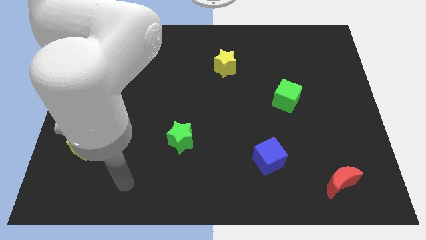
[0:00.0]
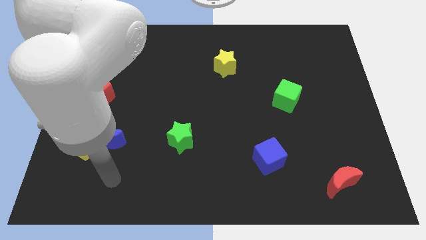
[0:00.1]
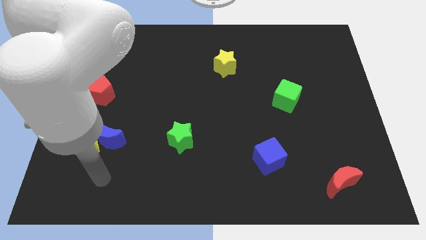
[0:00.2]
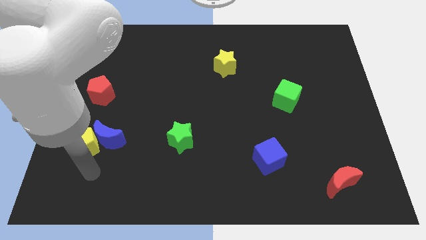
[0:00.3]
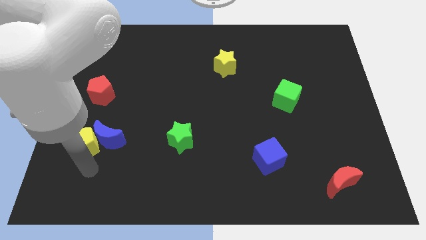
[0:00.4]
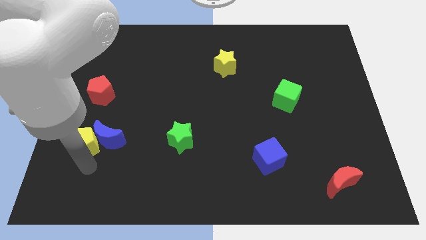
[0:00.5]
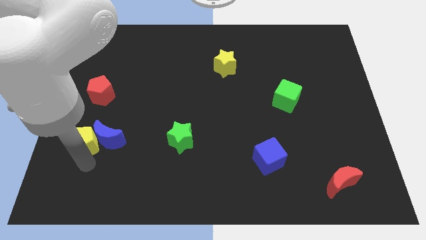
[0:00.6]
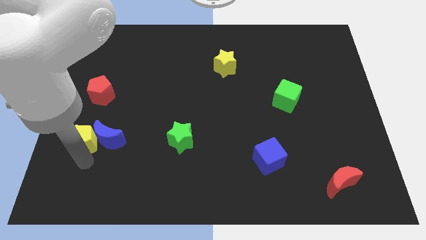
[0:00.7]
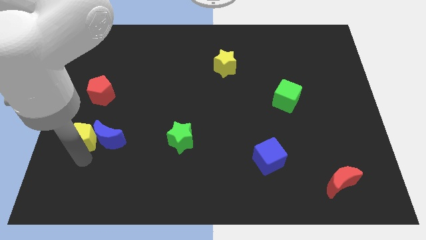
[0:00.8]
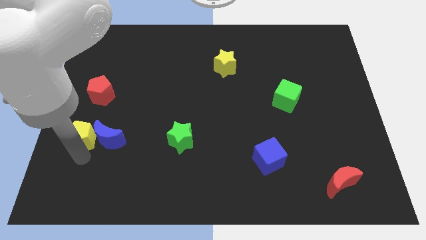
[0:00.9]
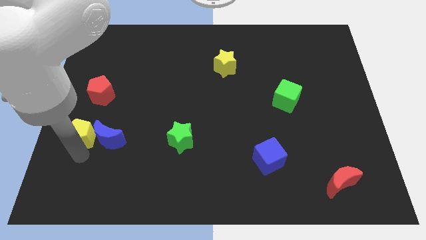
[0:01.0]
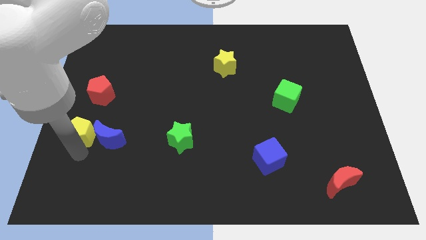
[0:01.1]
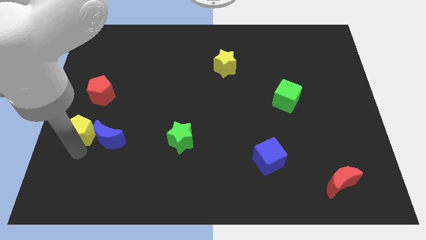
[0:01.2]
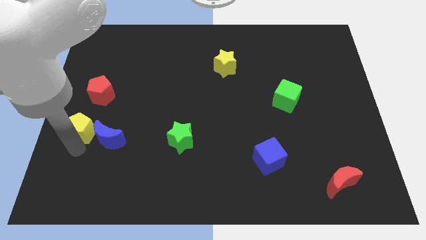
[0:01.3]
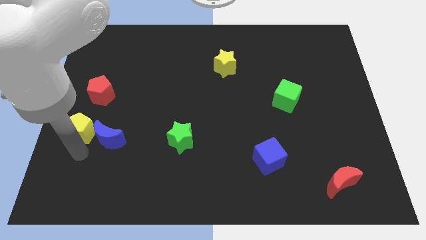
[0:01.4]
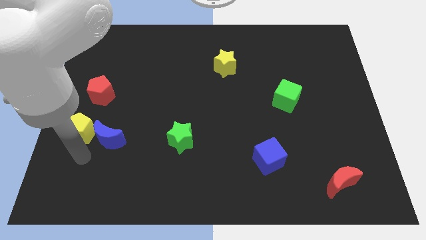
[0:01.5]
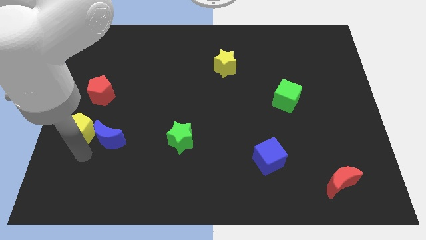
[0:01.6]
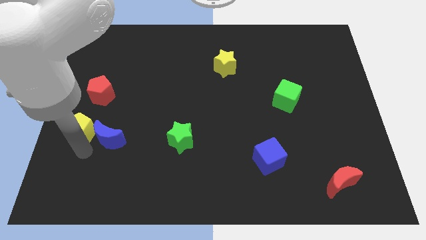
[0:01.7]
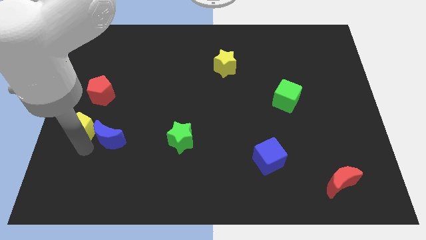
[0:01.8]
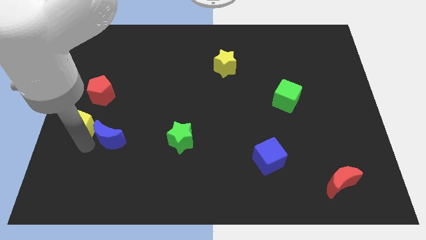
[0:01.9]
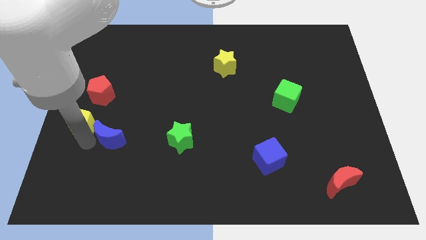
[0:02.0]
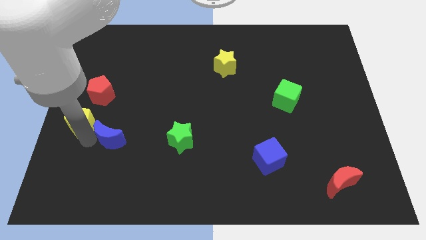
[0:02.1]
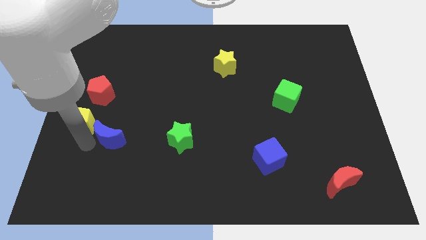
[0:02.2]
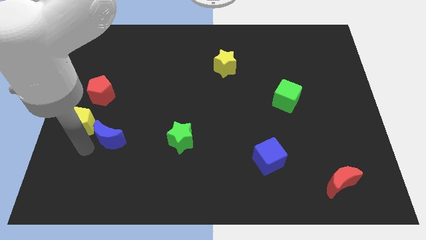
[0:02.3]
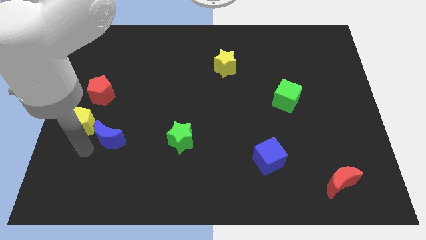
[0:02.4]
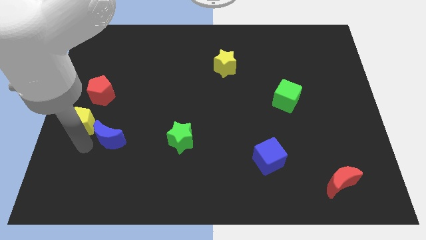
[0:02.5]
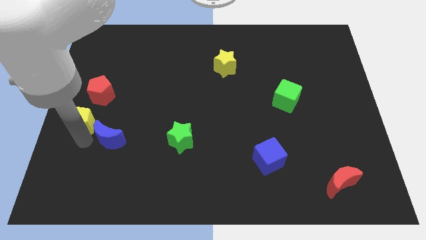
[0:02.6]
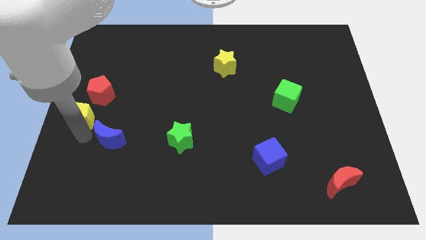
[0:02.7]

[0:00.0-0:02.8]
slide the yellow pentagon slightly upwards

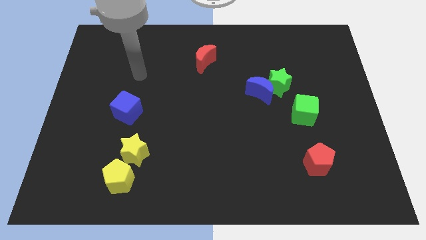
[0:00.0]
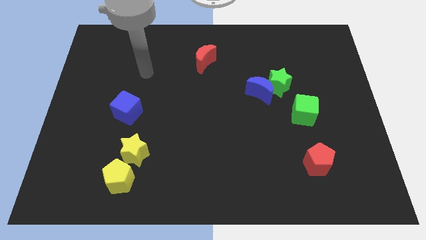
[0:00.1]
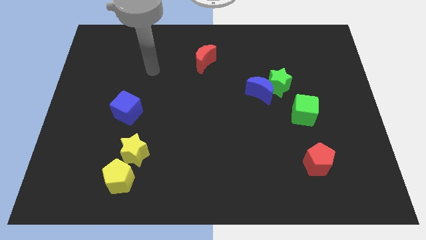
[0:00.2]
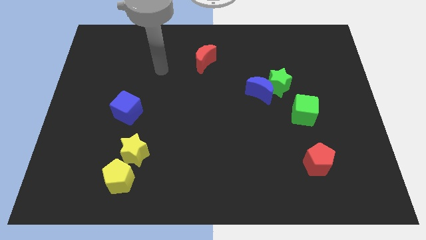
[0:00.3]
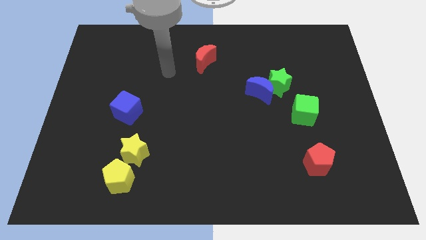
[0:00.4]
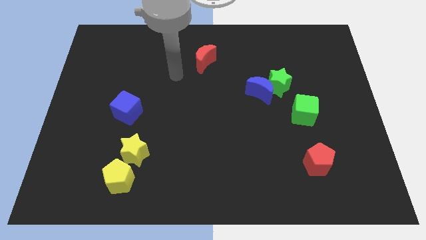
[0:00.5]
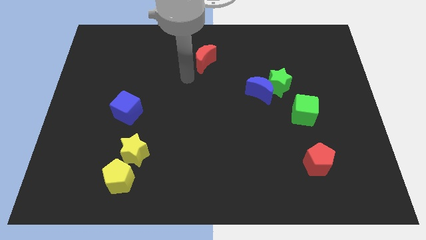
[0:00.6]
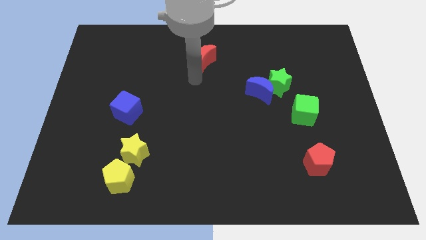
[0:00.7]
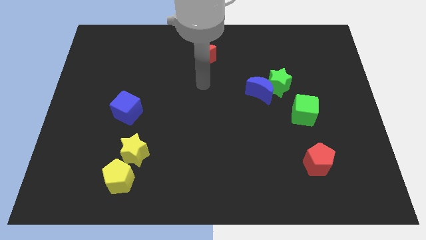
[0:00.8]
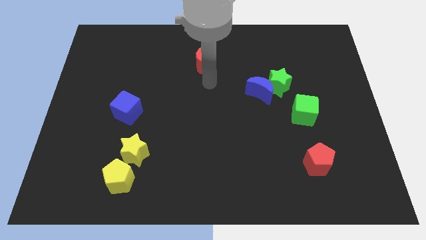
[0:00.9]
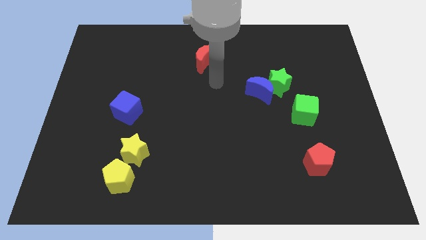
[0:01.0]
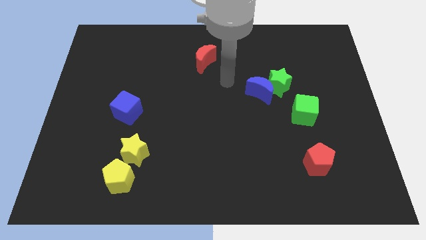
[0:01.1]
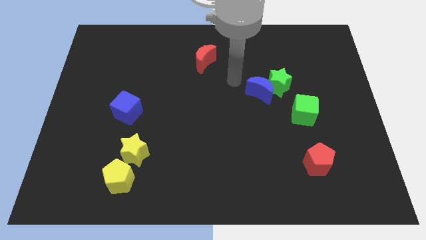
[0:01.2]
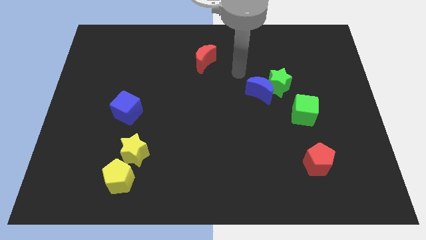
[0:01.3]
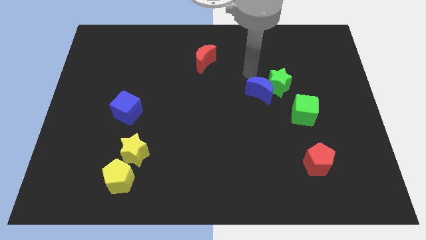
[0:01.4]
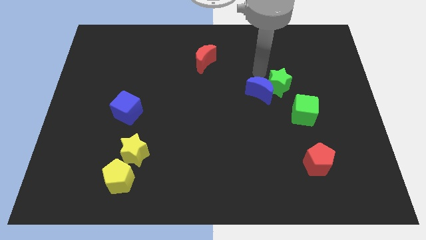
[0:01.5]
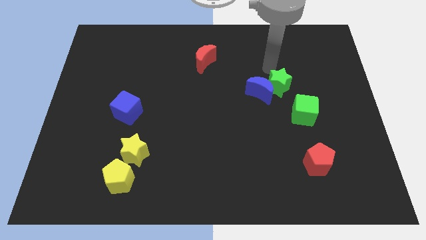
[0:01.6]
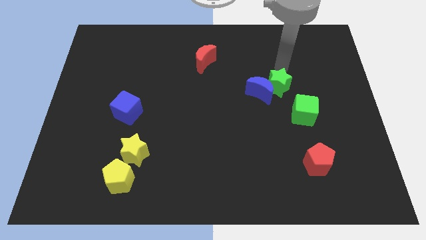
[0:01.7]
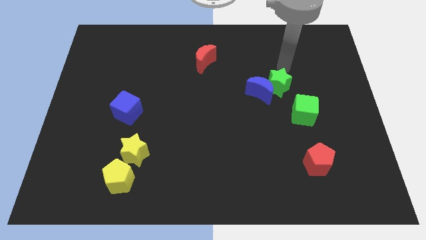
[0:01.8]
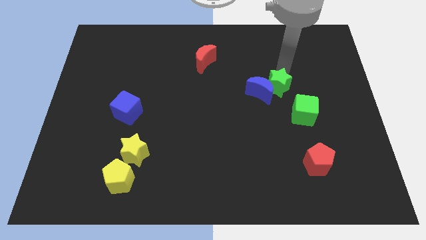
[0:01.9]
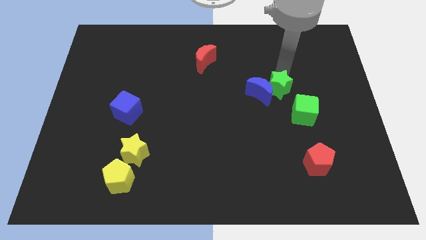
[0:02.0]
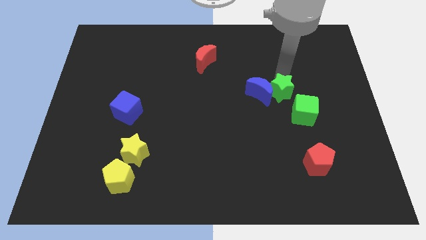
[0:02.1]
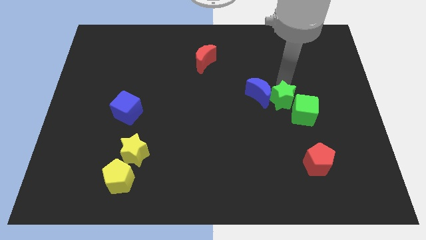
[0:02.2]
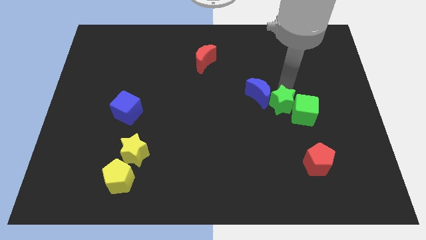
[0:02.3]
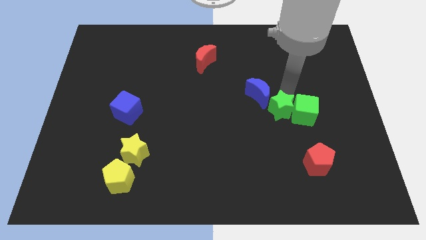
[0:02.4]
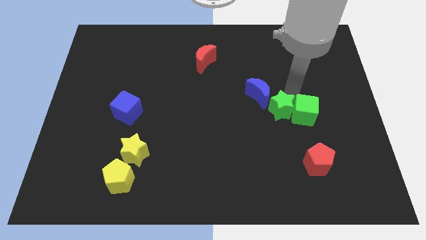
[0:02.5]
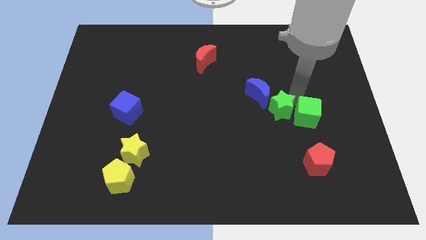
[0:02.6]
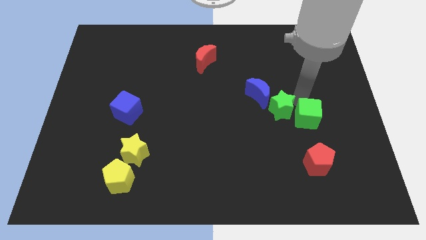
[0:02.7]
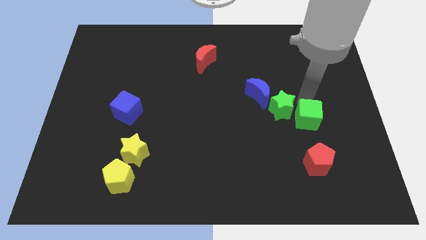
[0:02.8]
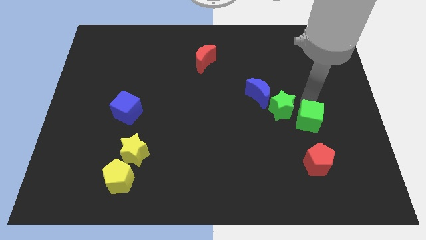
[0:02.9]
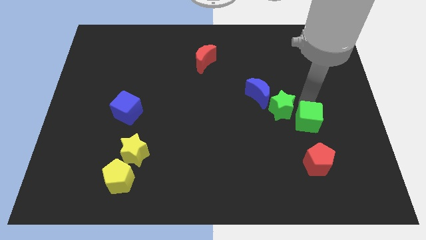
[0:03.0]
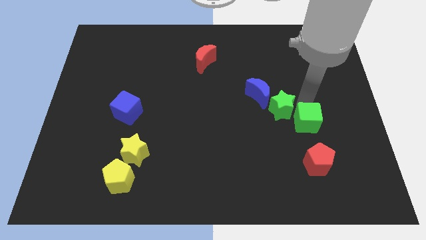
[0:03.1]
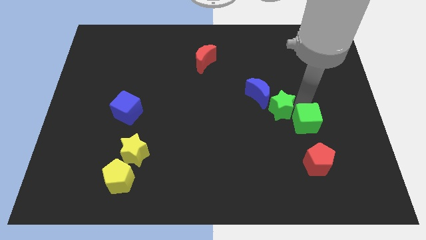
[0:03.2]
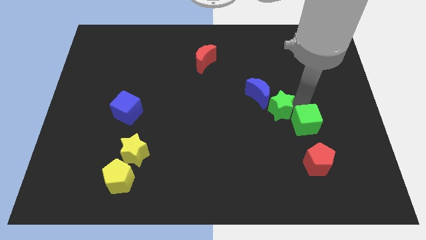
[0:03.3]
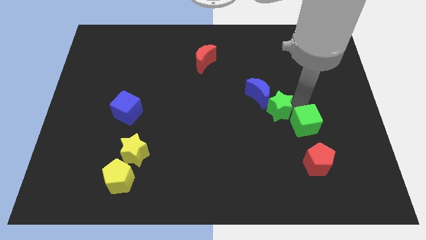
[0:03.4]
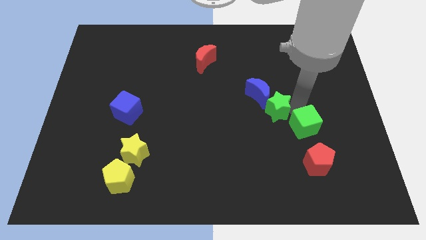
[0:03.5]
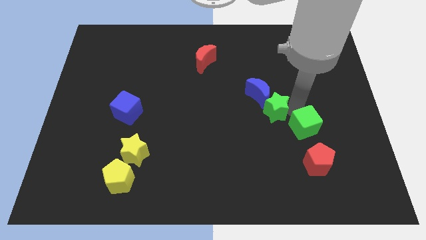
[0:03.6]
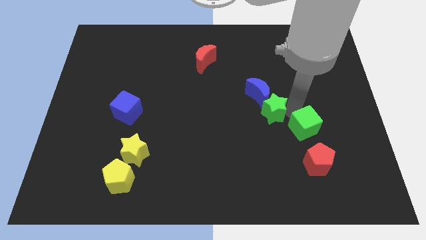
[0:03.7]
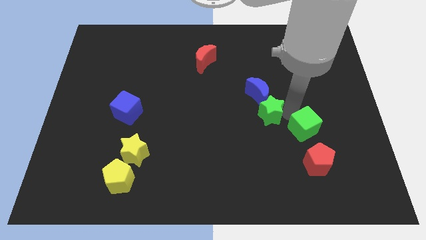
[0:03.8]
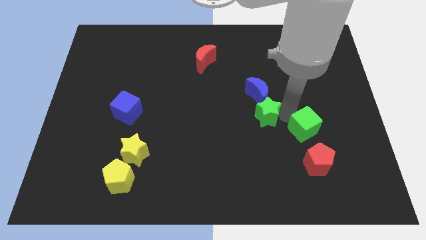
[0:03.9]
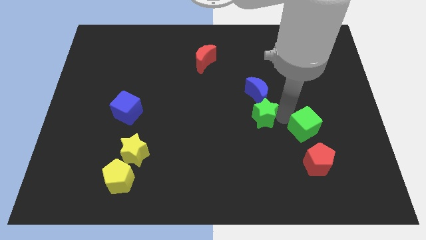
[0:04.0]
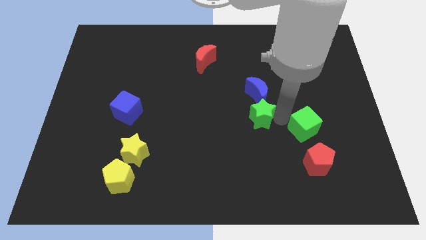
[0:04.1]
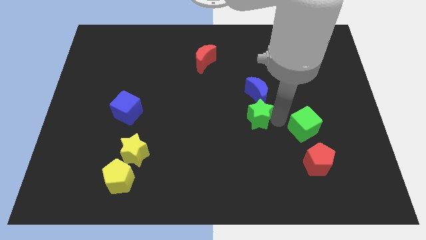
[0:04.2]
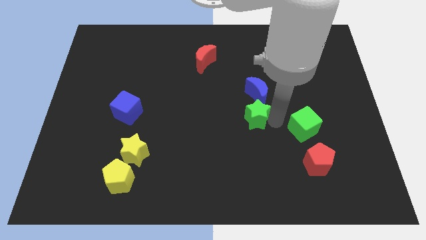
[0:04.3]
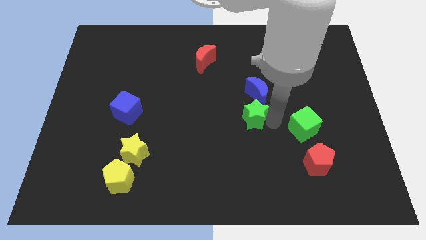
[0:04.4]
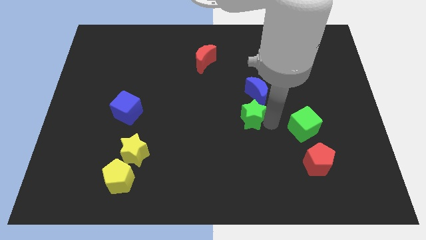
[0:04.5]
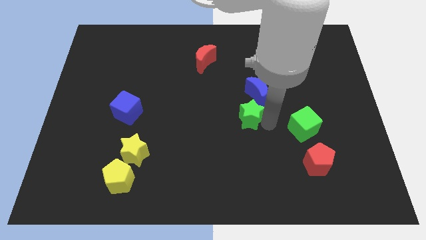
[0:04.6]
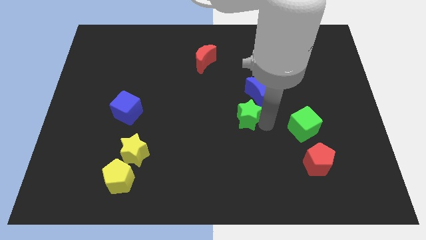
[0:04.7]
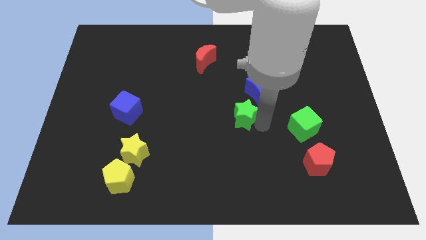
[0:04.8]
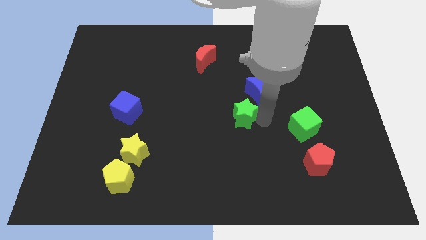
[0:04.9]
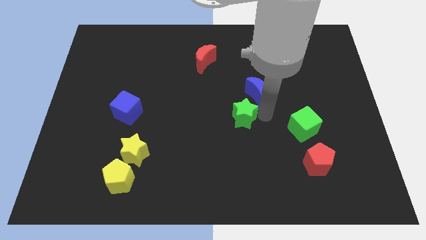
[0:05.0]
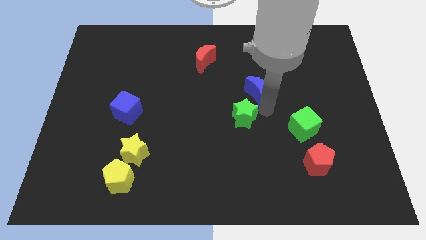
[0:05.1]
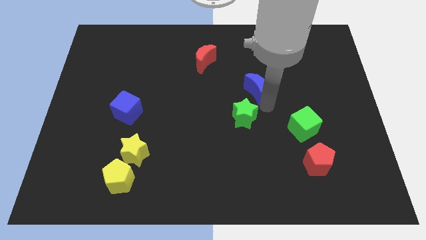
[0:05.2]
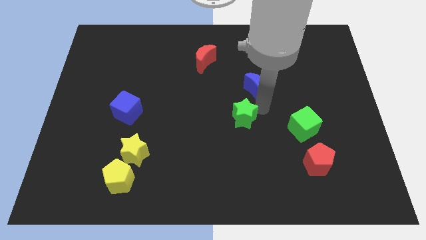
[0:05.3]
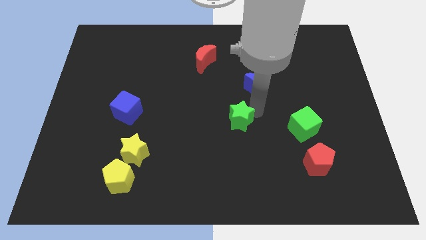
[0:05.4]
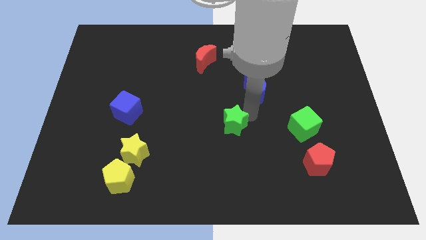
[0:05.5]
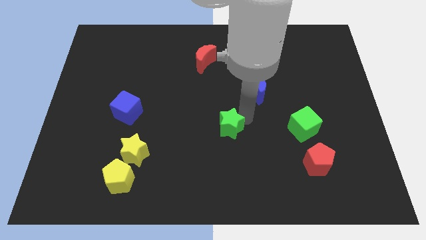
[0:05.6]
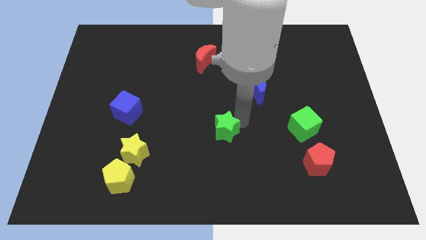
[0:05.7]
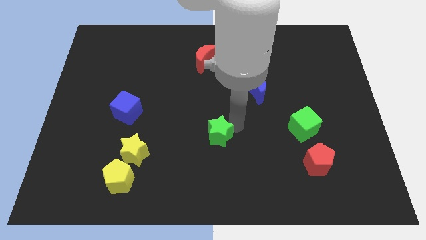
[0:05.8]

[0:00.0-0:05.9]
slide the green star downwards and left
